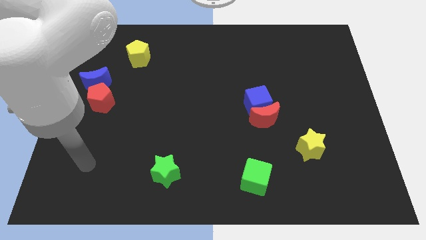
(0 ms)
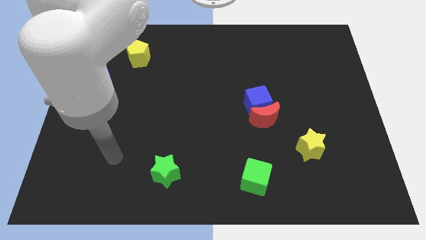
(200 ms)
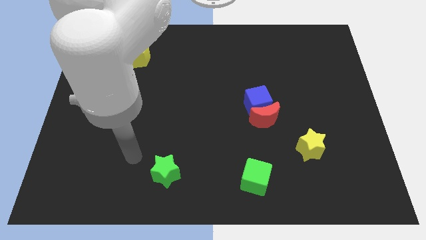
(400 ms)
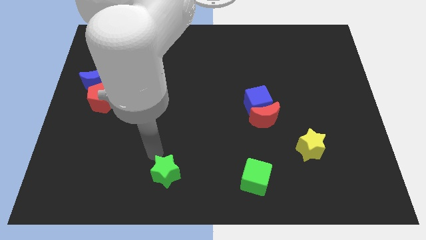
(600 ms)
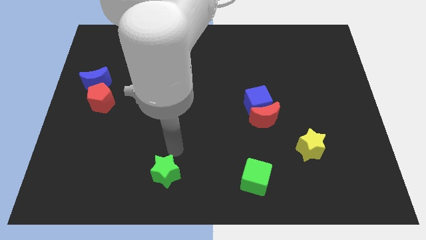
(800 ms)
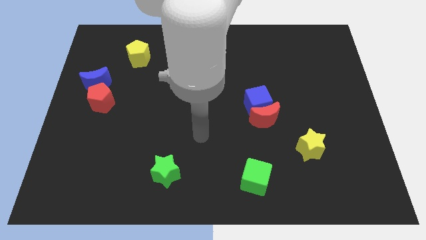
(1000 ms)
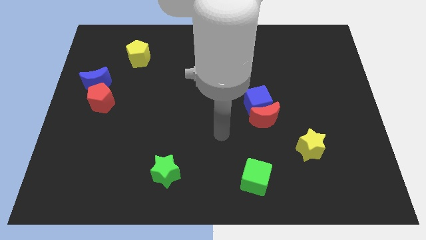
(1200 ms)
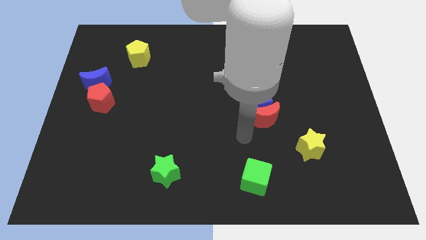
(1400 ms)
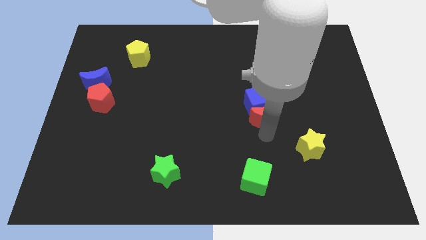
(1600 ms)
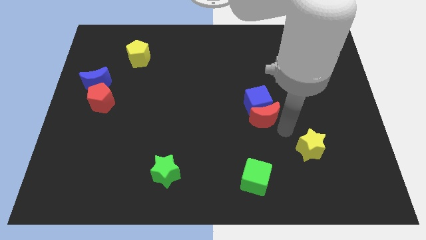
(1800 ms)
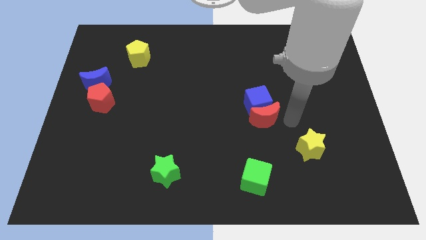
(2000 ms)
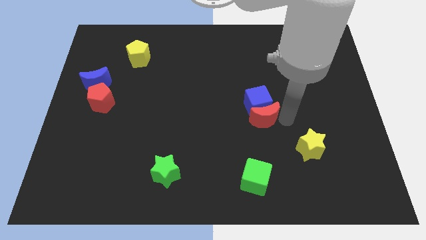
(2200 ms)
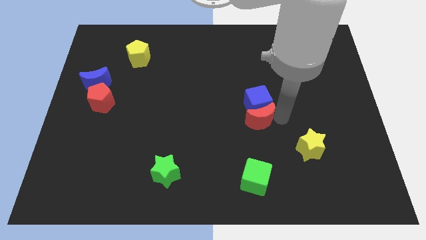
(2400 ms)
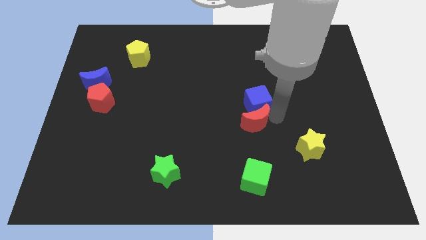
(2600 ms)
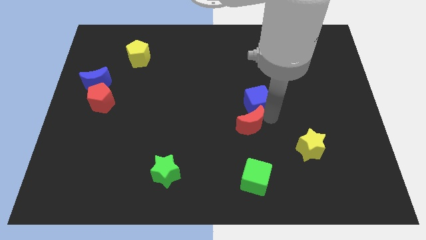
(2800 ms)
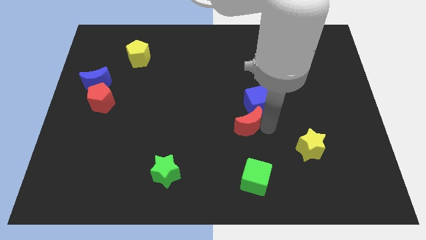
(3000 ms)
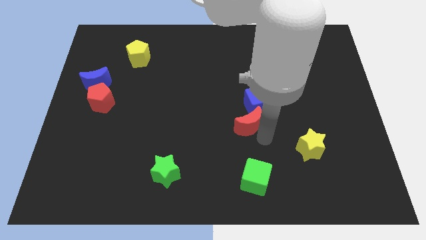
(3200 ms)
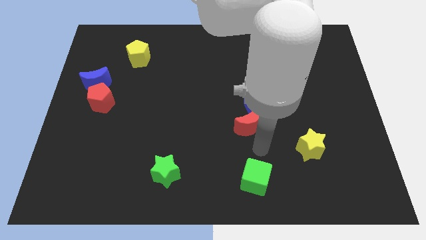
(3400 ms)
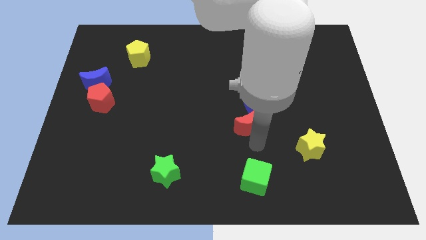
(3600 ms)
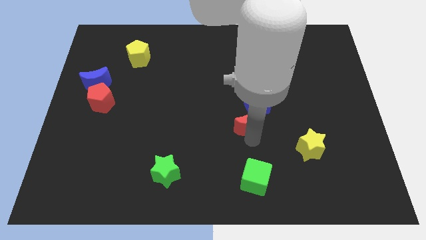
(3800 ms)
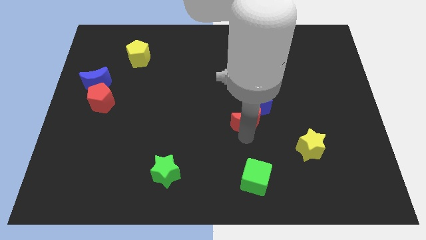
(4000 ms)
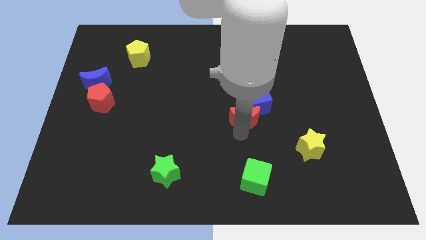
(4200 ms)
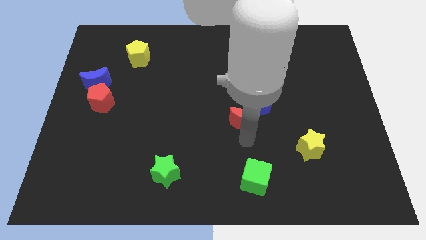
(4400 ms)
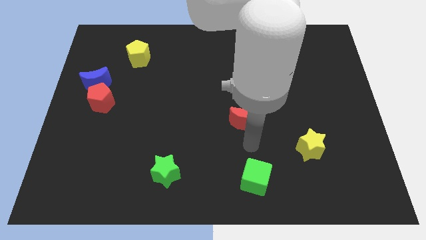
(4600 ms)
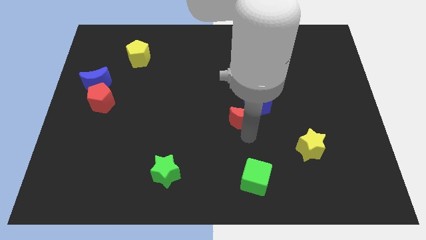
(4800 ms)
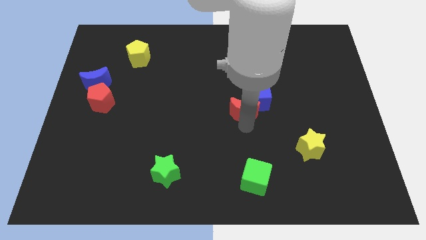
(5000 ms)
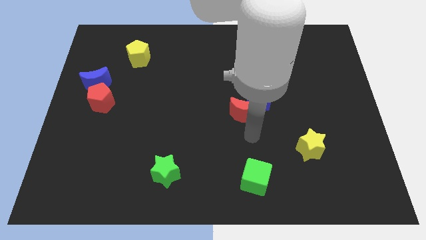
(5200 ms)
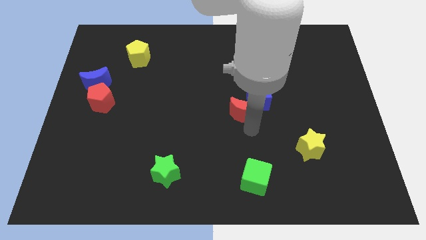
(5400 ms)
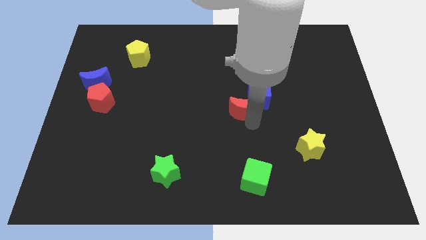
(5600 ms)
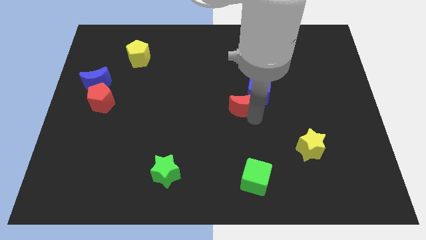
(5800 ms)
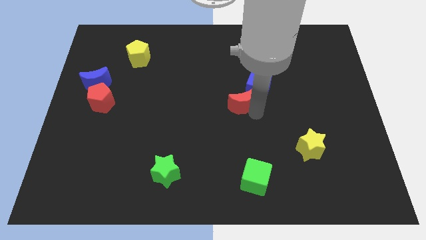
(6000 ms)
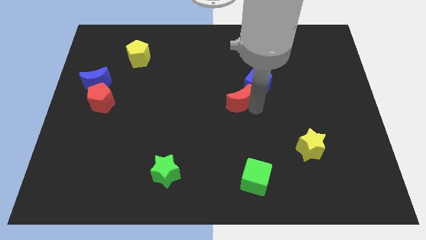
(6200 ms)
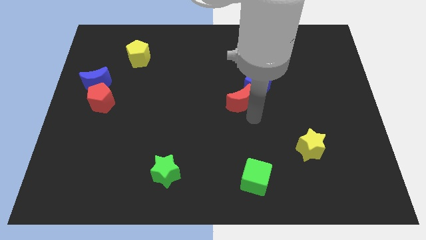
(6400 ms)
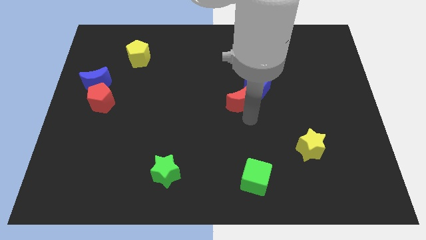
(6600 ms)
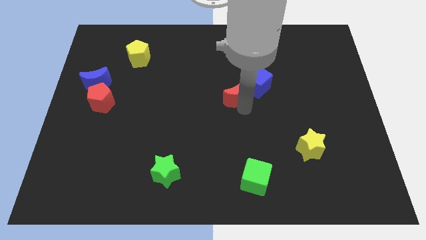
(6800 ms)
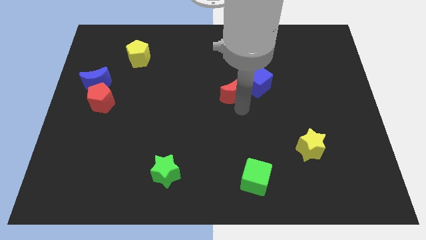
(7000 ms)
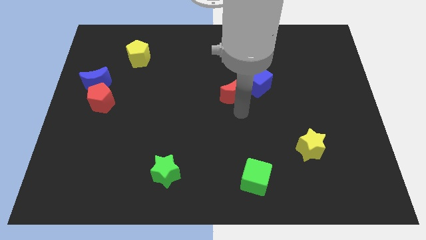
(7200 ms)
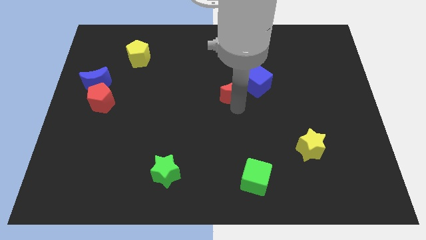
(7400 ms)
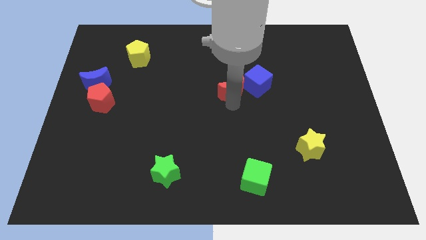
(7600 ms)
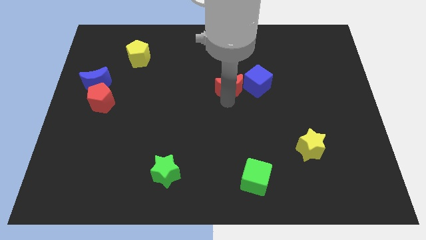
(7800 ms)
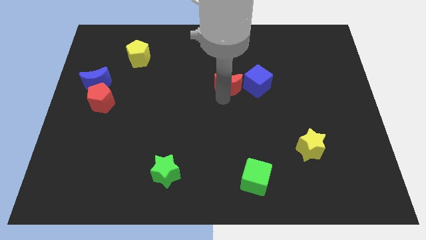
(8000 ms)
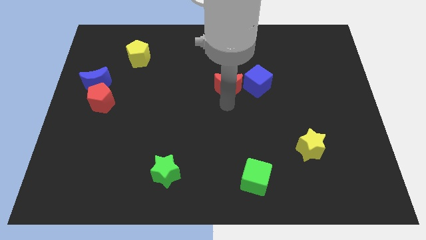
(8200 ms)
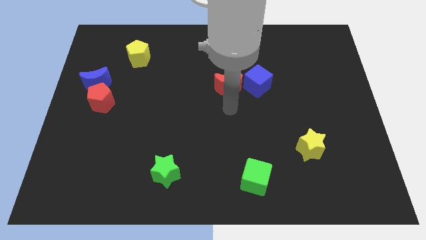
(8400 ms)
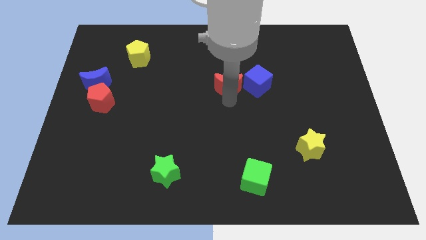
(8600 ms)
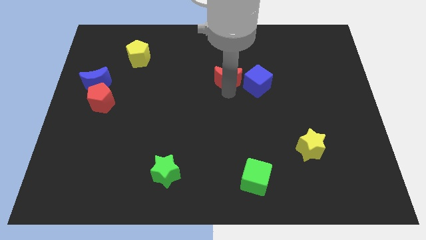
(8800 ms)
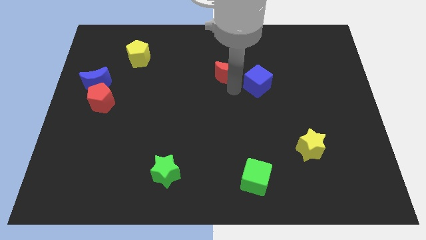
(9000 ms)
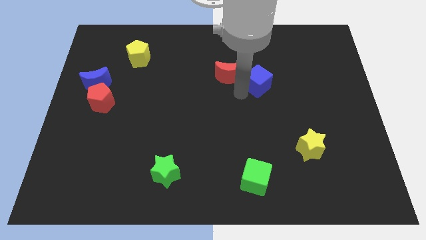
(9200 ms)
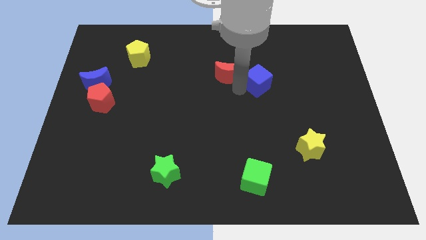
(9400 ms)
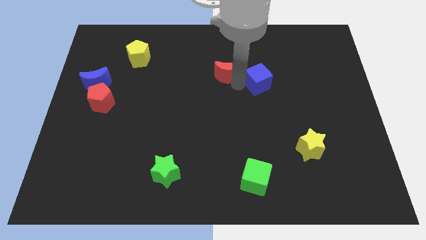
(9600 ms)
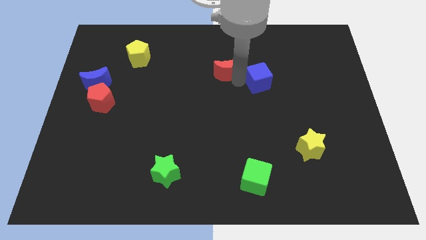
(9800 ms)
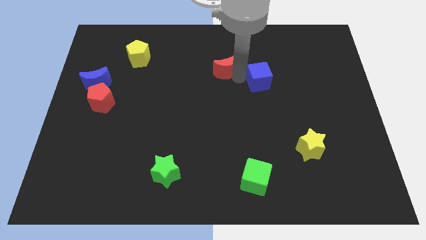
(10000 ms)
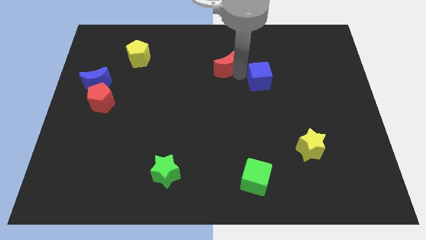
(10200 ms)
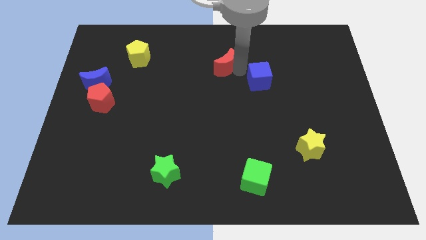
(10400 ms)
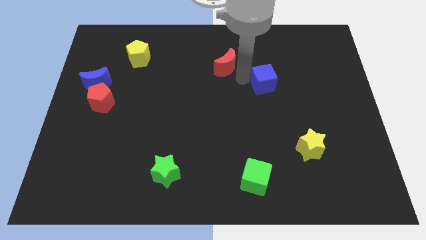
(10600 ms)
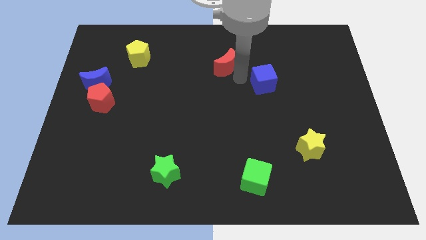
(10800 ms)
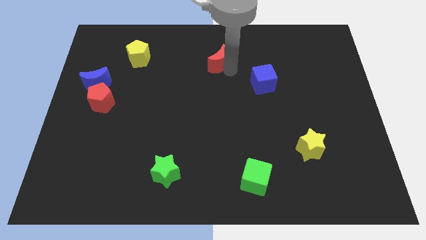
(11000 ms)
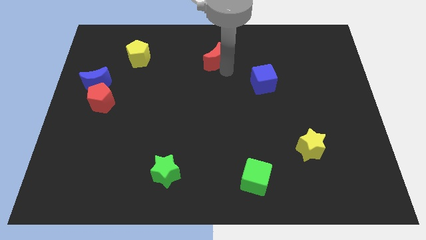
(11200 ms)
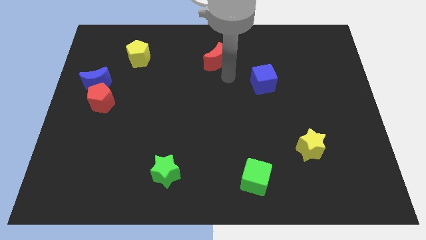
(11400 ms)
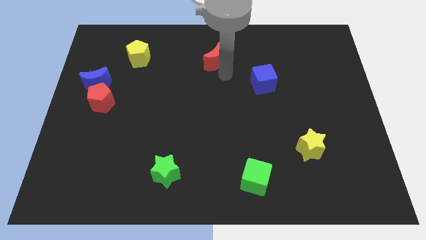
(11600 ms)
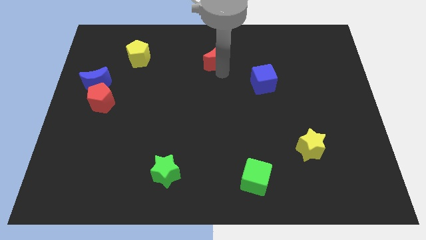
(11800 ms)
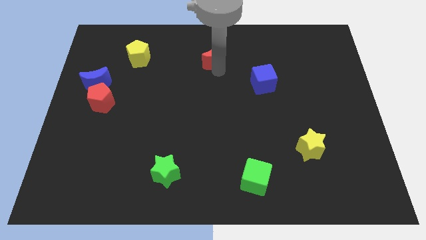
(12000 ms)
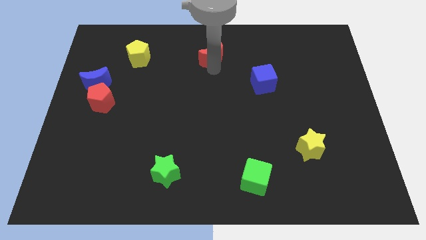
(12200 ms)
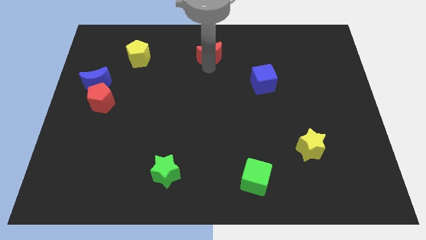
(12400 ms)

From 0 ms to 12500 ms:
put the red moon to the towards your base
